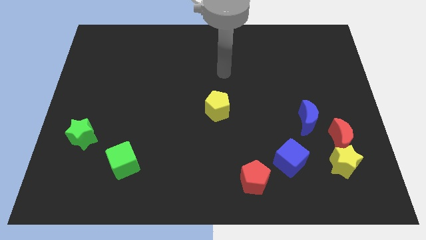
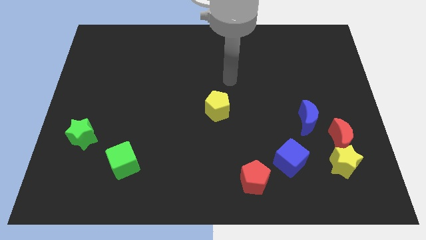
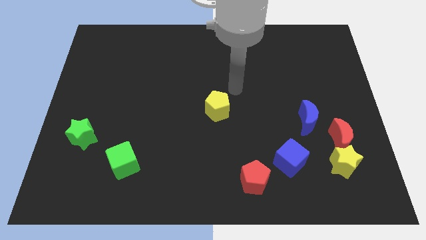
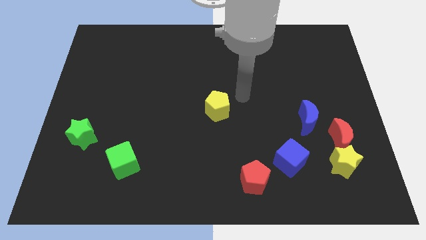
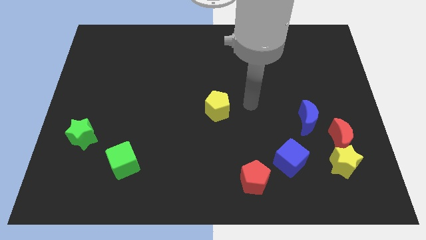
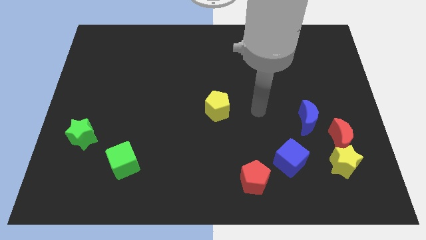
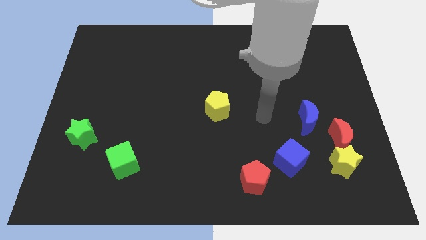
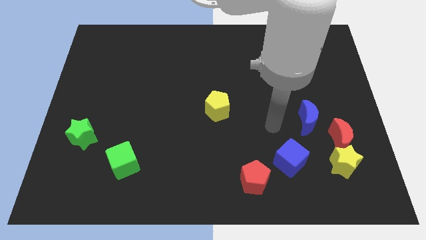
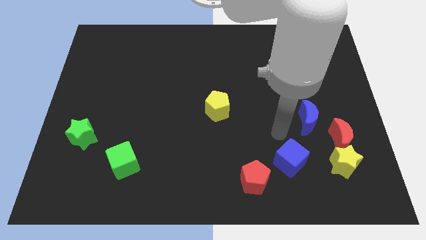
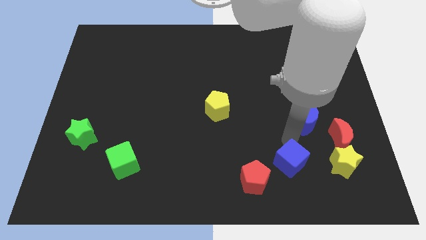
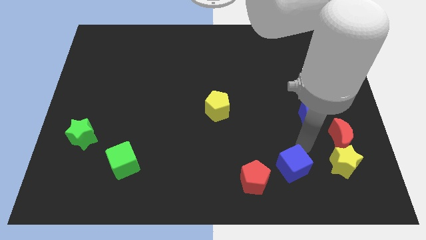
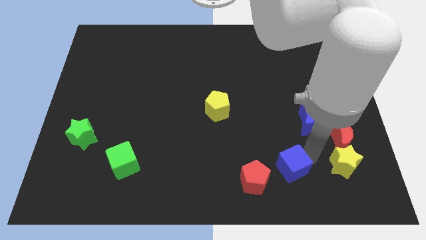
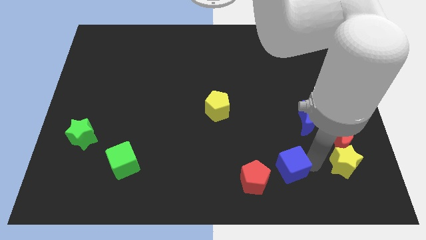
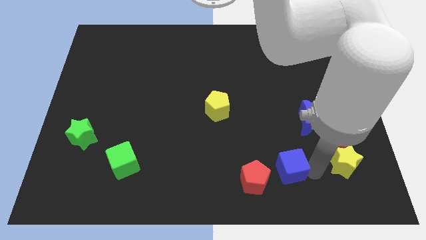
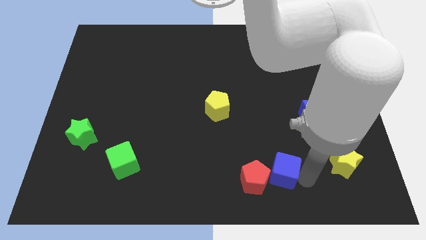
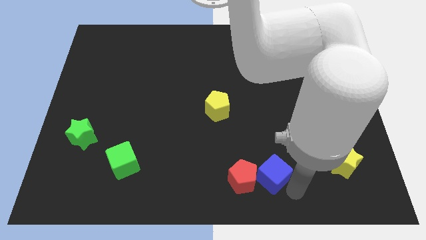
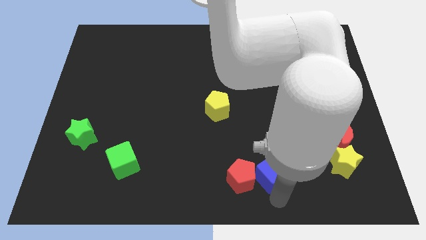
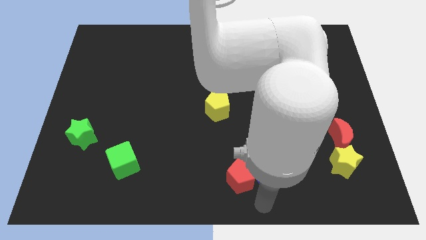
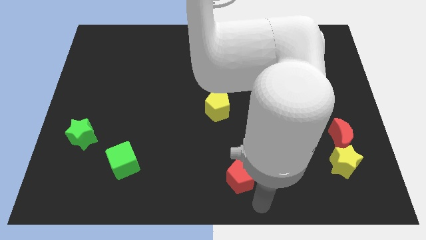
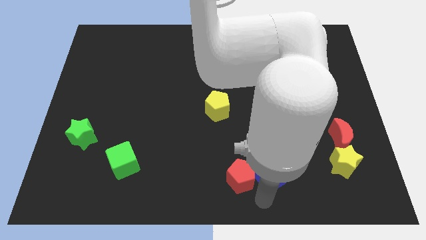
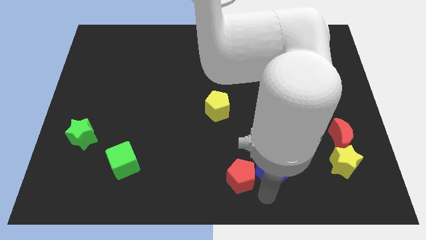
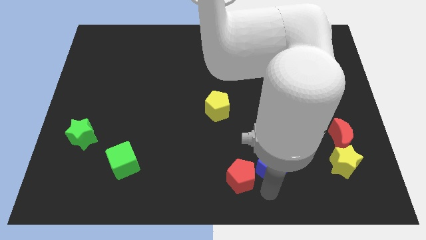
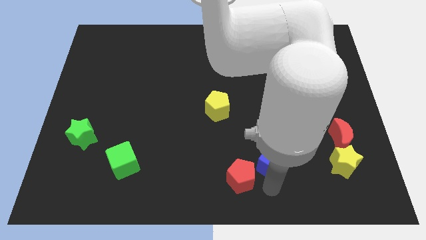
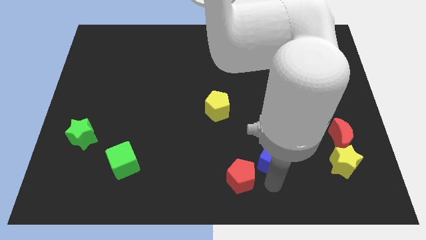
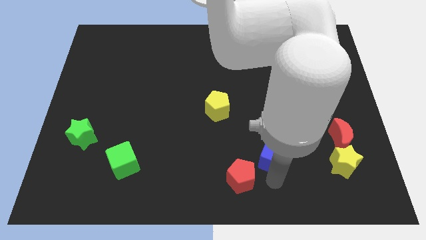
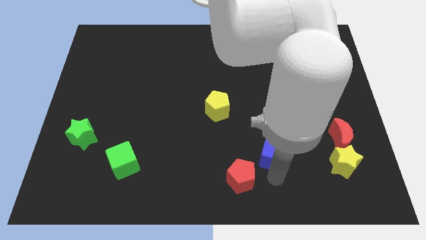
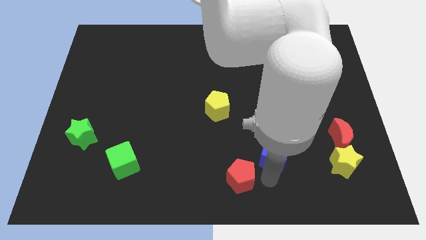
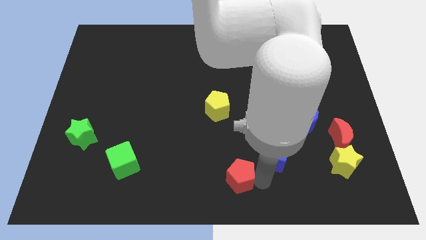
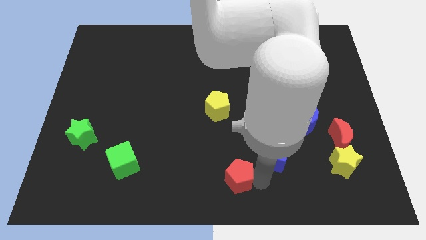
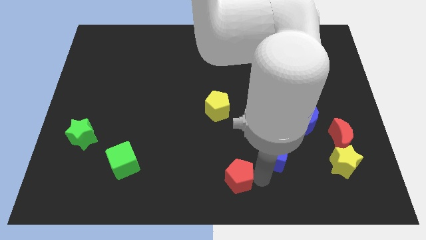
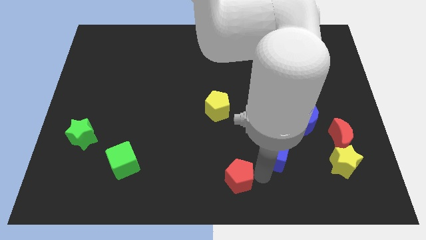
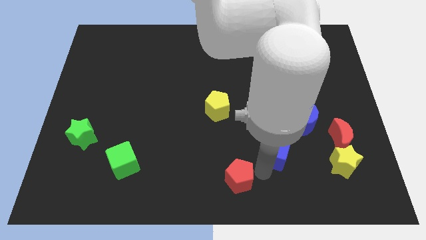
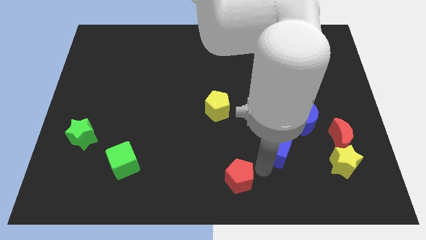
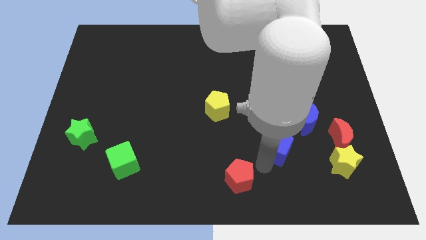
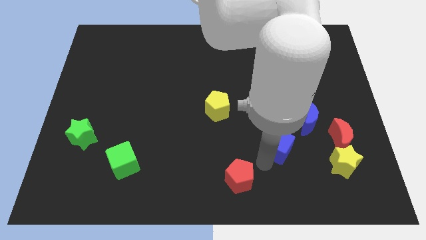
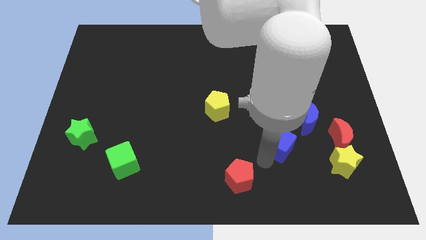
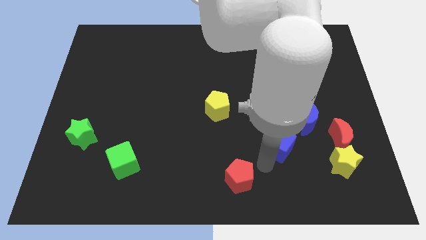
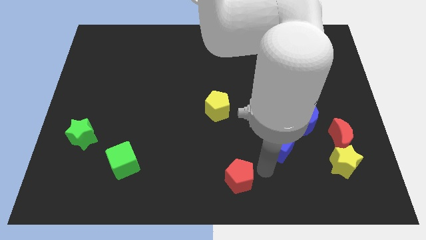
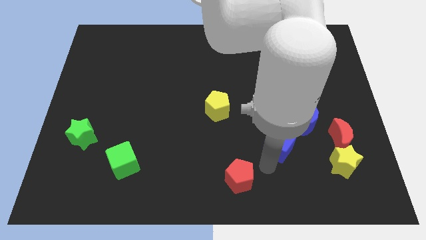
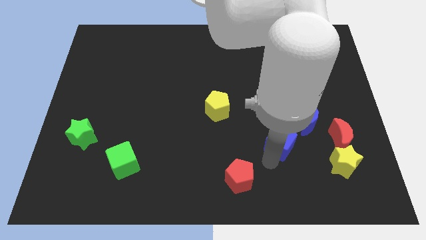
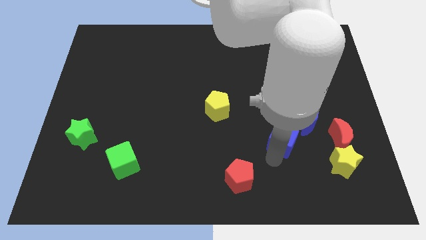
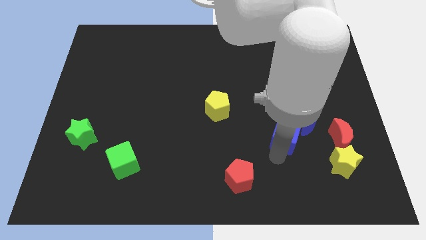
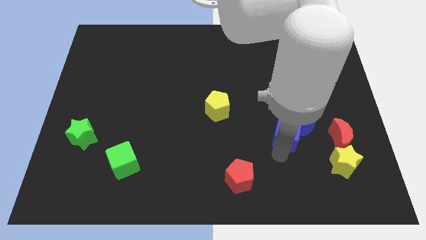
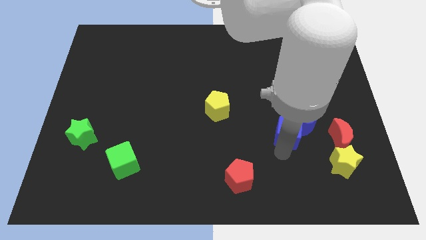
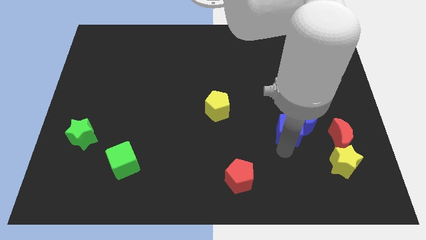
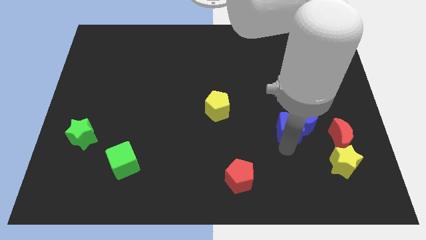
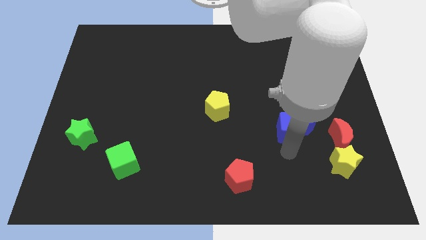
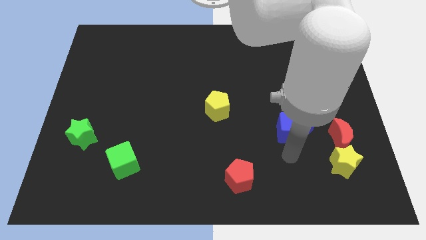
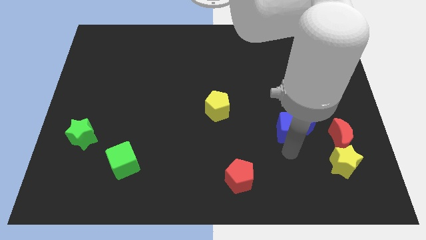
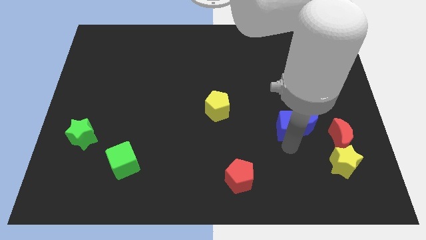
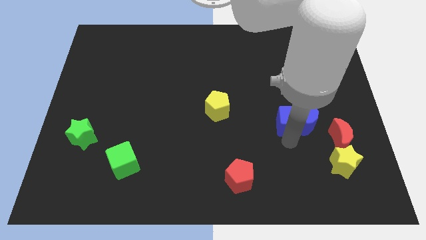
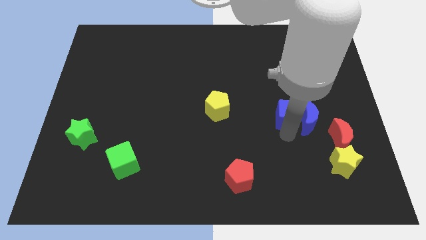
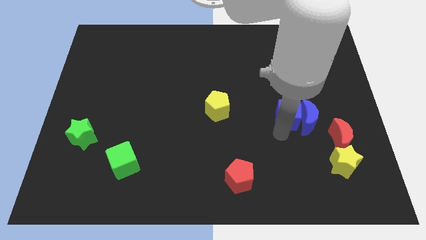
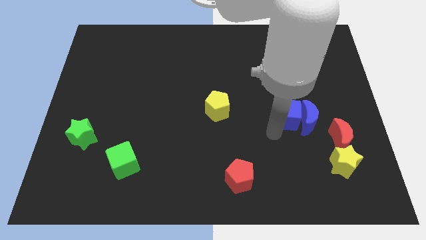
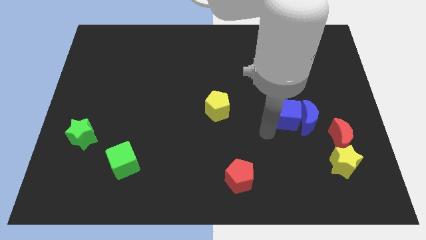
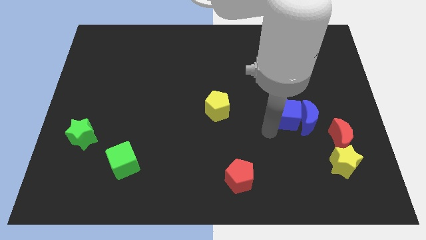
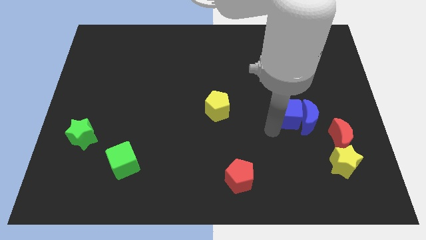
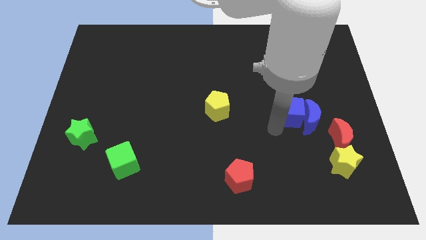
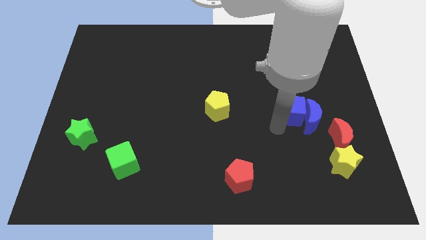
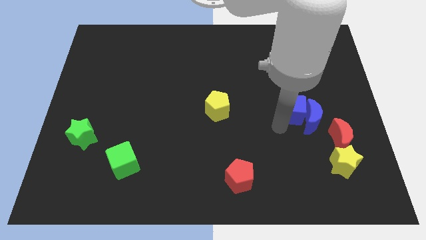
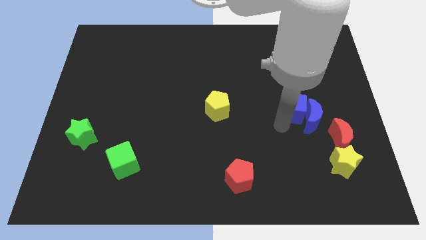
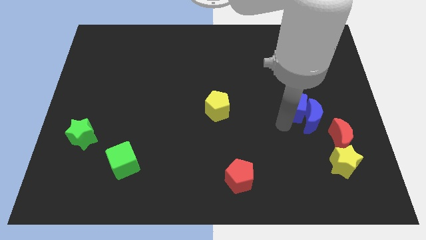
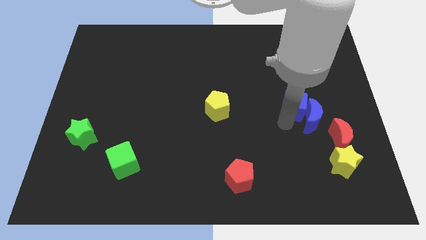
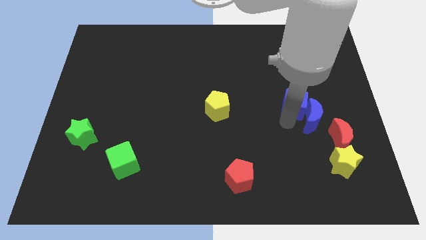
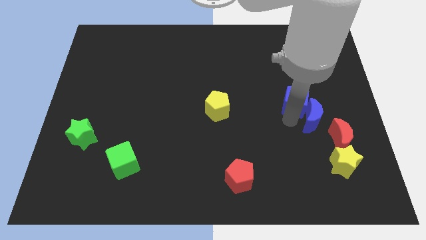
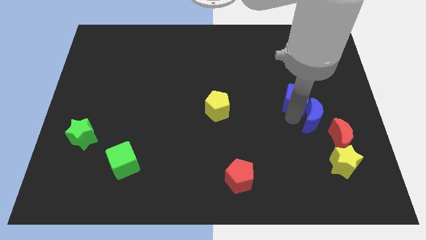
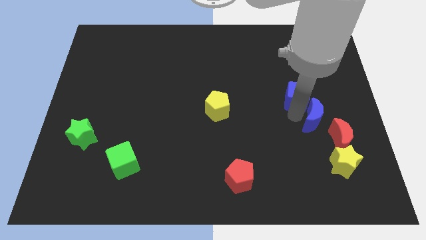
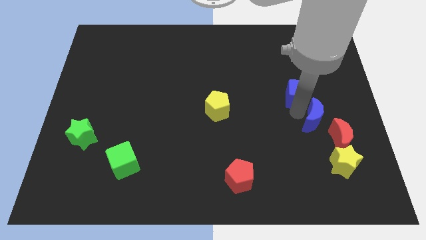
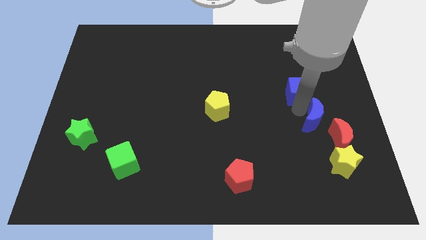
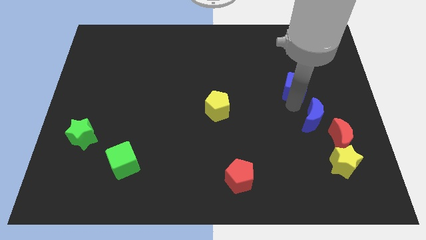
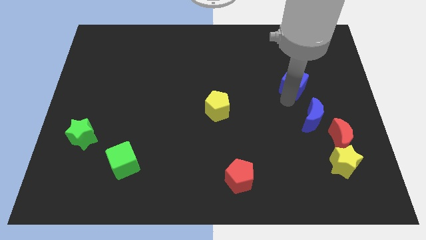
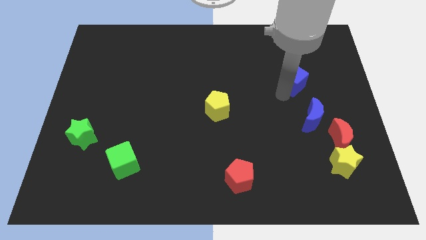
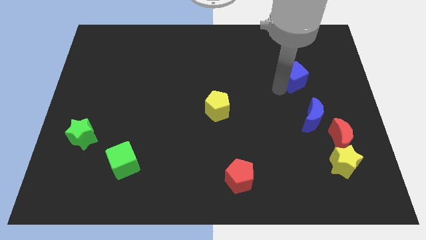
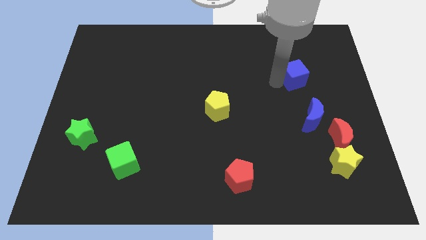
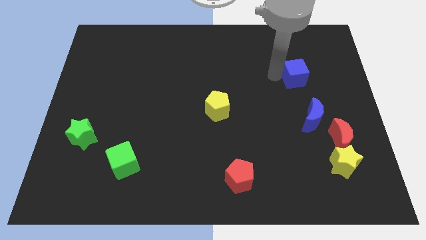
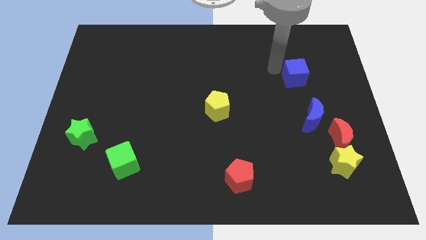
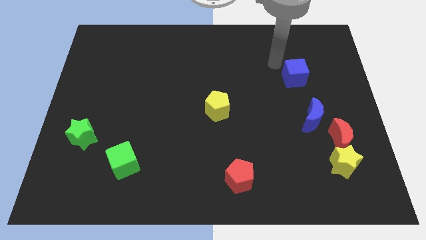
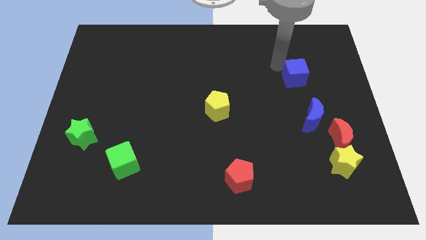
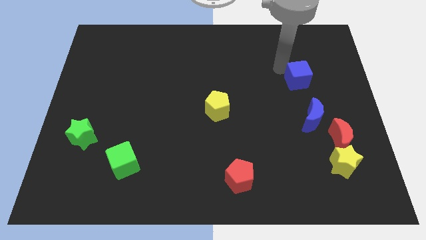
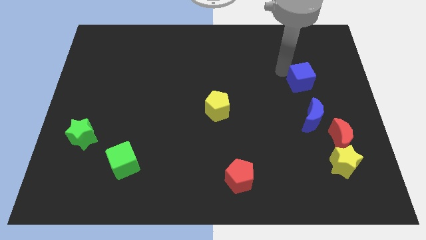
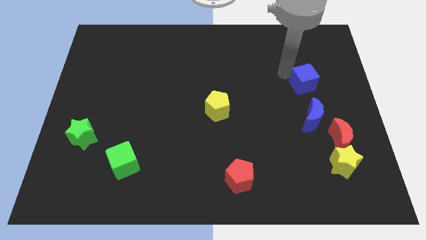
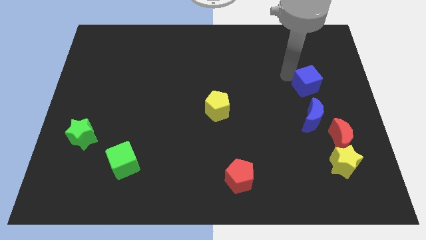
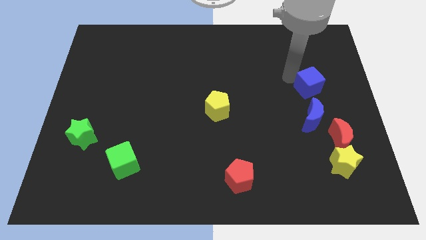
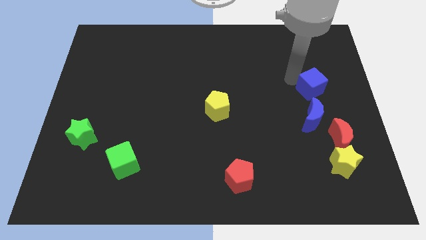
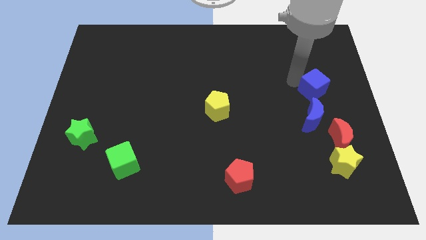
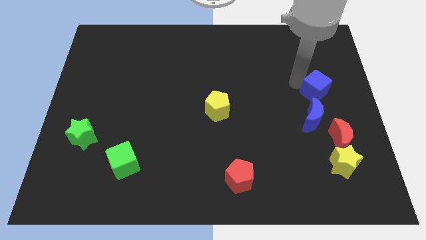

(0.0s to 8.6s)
put the blue cube to the top right of the blue moon
